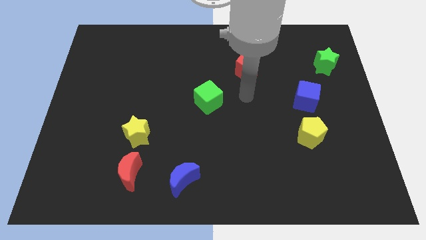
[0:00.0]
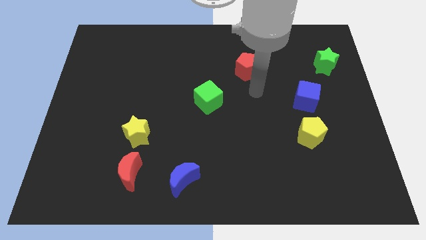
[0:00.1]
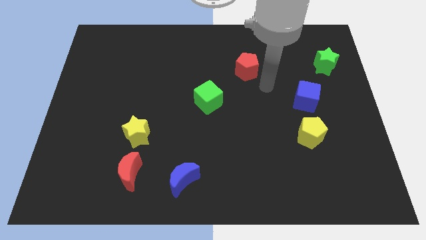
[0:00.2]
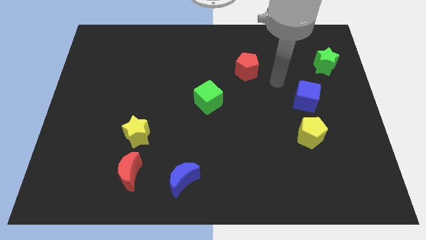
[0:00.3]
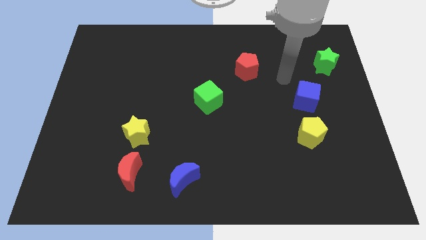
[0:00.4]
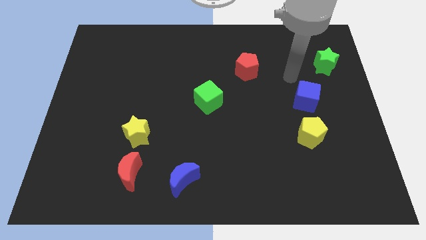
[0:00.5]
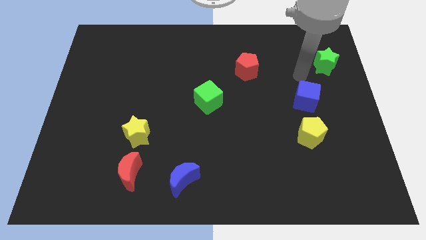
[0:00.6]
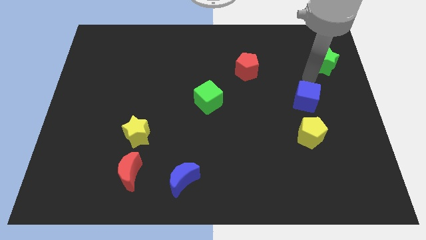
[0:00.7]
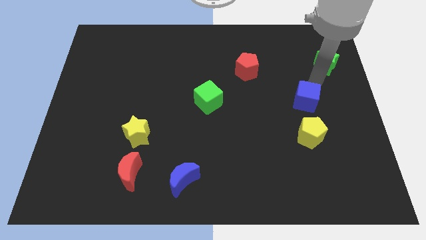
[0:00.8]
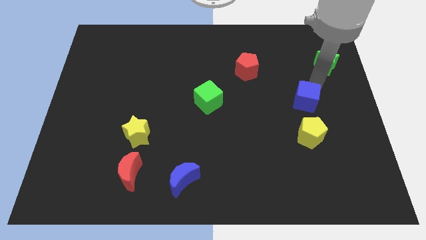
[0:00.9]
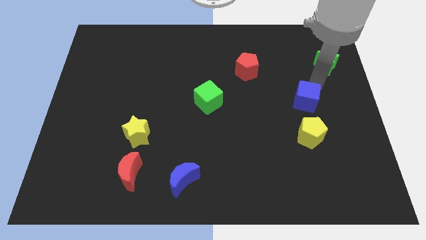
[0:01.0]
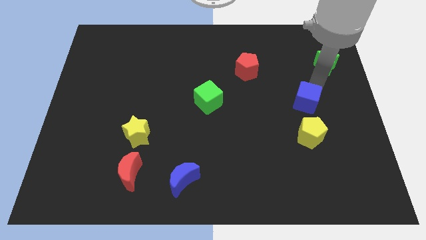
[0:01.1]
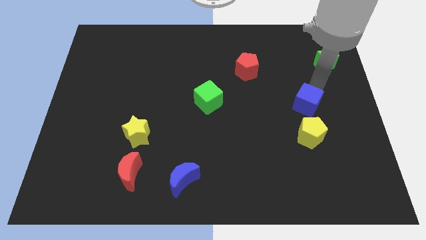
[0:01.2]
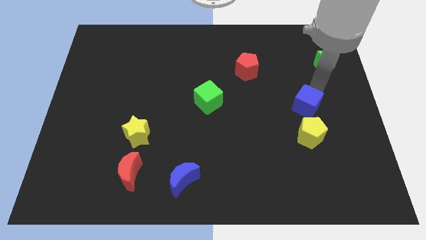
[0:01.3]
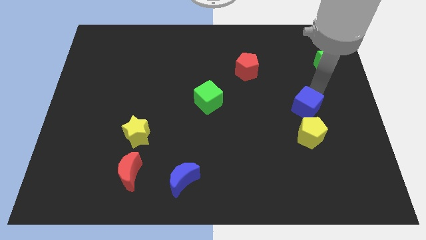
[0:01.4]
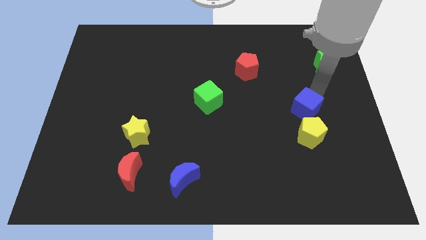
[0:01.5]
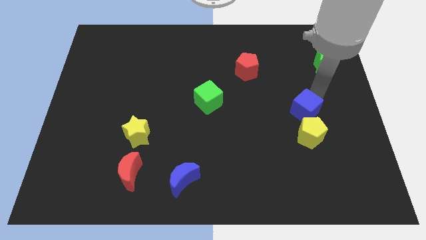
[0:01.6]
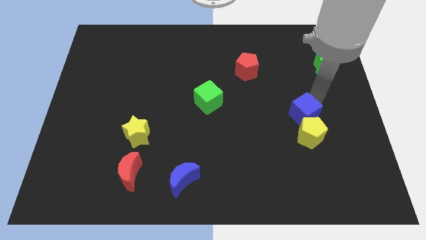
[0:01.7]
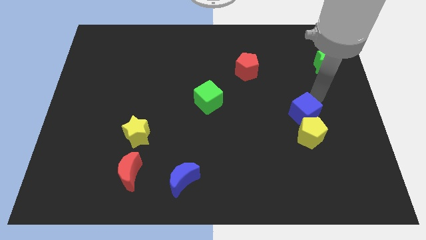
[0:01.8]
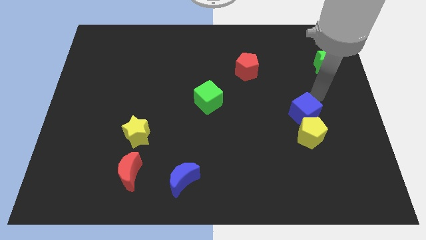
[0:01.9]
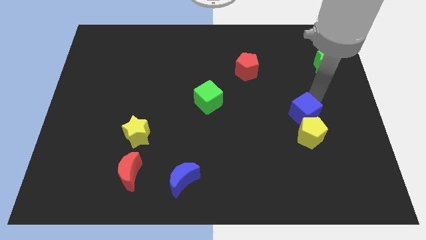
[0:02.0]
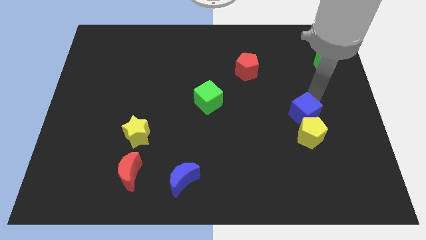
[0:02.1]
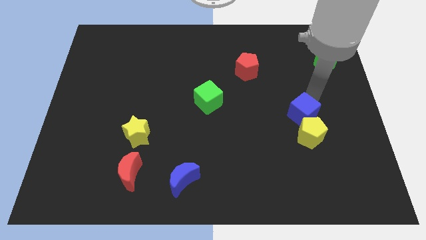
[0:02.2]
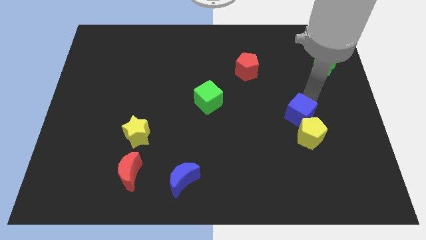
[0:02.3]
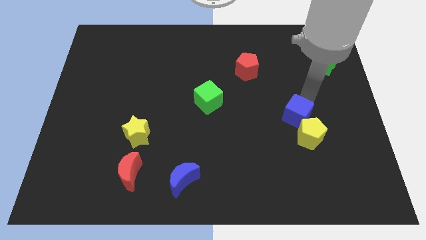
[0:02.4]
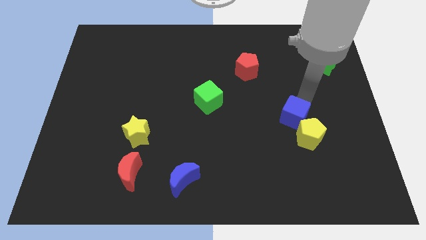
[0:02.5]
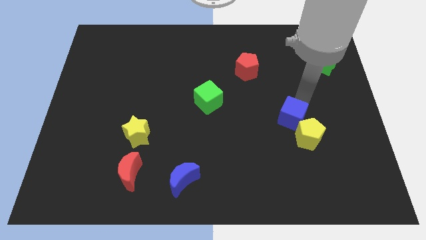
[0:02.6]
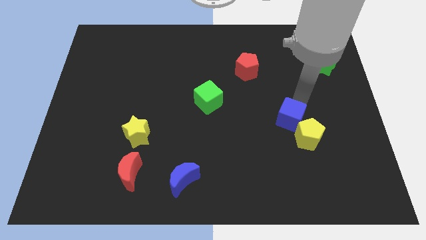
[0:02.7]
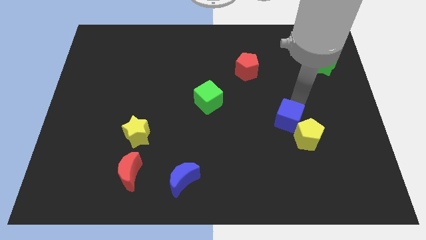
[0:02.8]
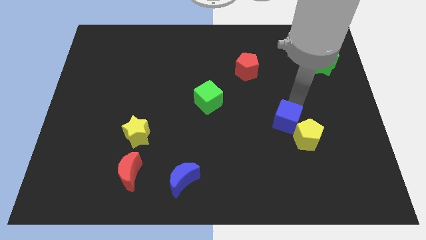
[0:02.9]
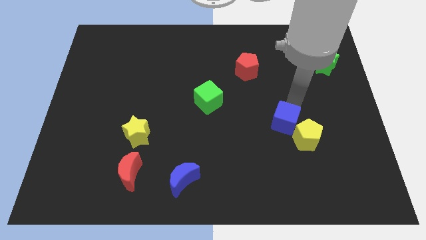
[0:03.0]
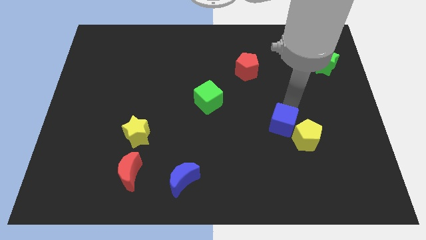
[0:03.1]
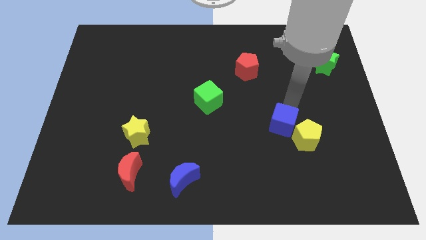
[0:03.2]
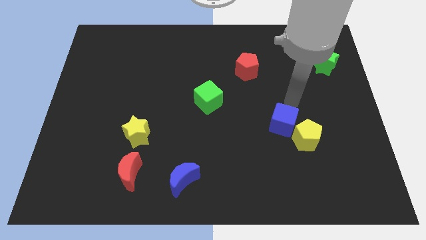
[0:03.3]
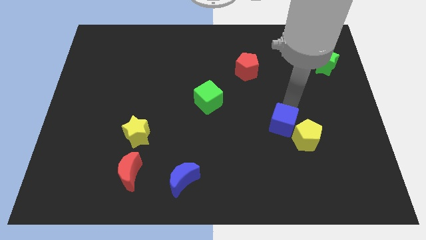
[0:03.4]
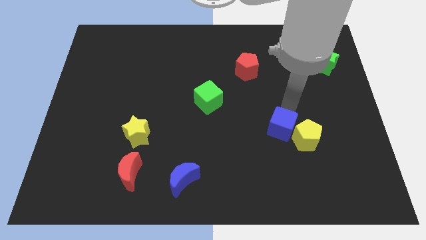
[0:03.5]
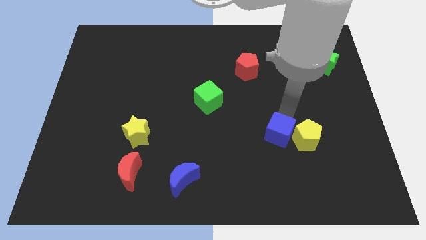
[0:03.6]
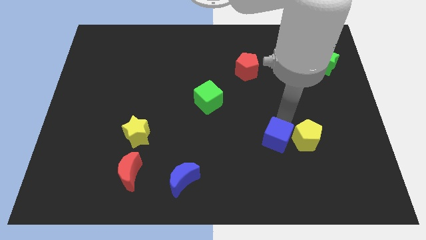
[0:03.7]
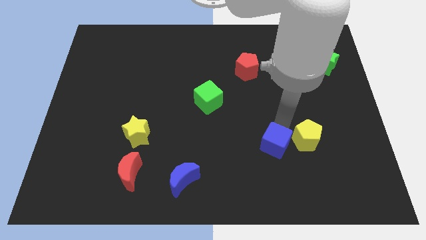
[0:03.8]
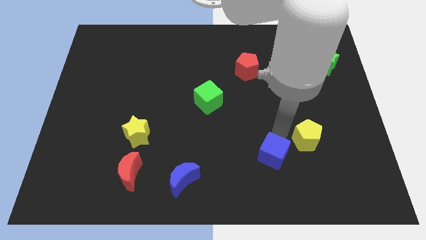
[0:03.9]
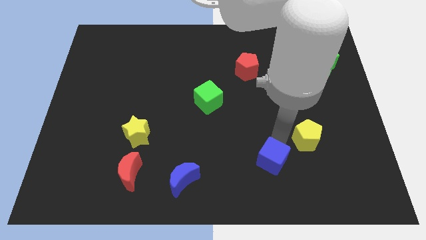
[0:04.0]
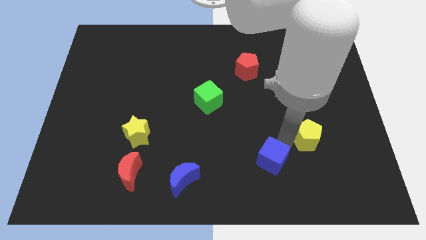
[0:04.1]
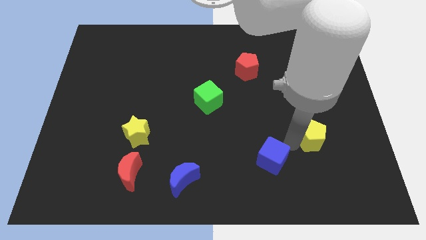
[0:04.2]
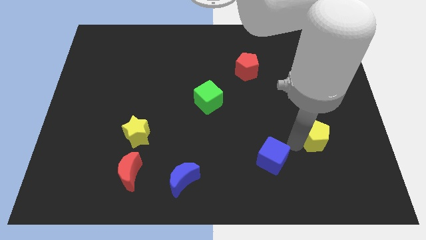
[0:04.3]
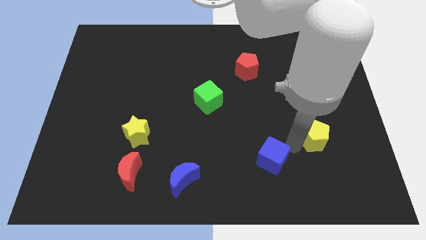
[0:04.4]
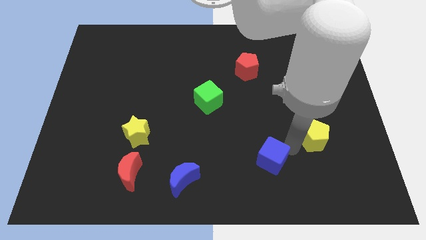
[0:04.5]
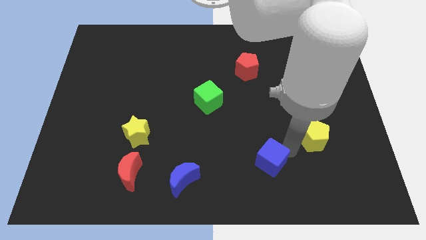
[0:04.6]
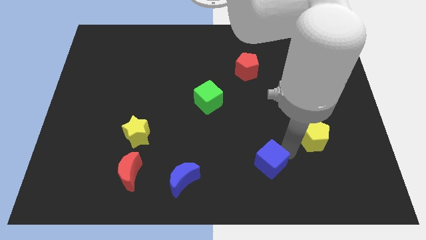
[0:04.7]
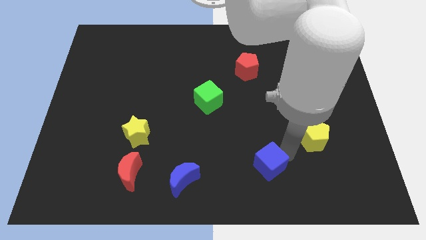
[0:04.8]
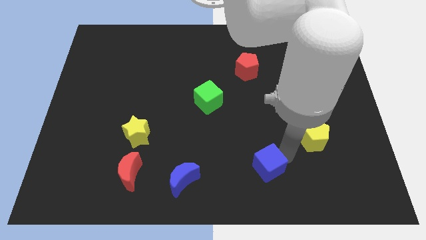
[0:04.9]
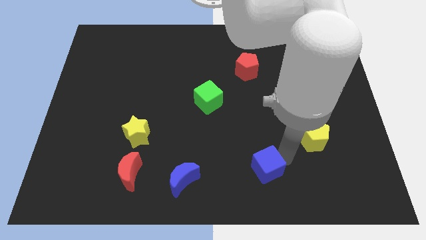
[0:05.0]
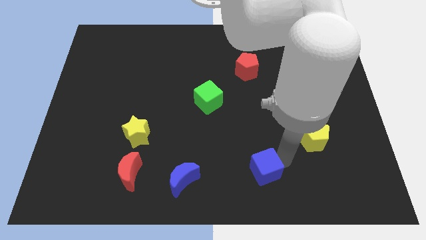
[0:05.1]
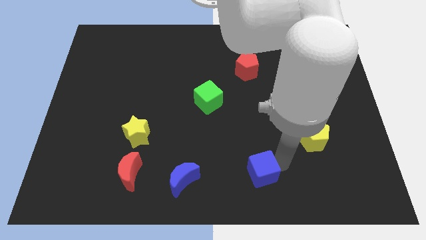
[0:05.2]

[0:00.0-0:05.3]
push the blue cube to the bottom side

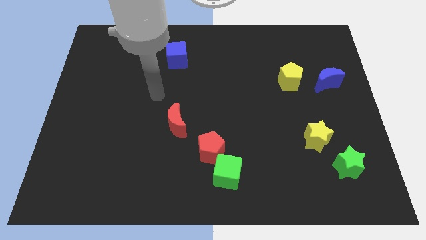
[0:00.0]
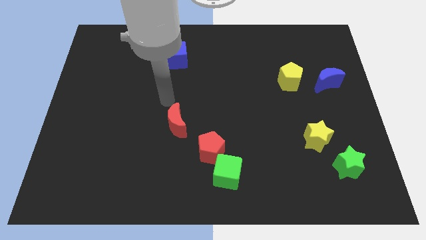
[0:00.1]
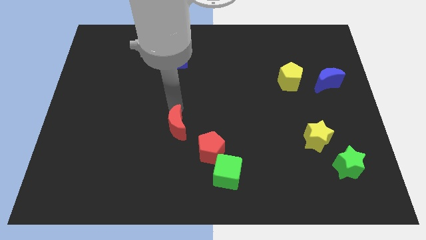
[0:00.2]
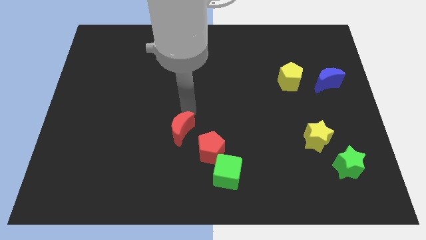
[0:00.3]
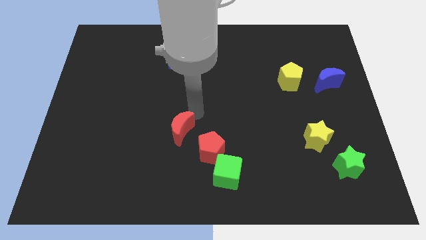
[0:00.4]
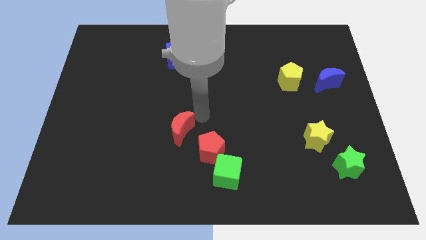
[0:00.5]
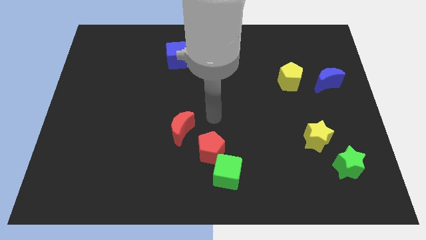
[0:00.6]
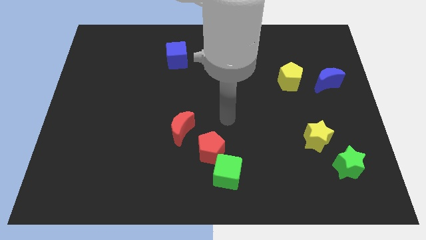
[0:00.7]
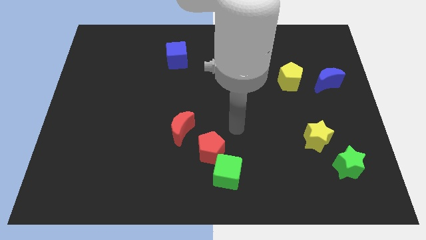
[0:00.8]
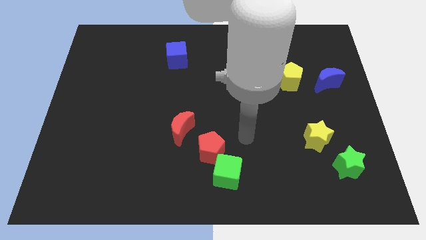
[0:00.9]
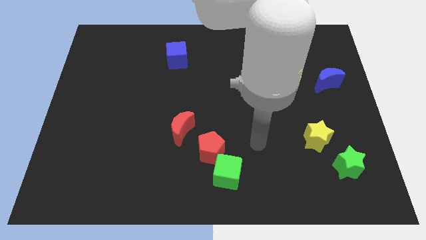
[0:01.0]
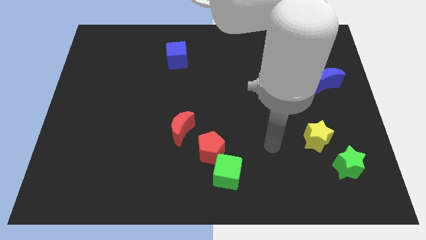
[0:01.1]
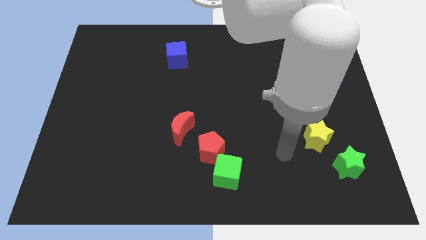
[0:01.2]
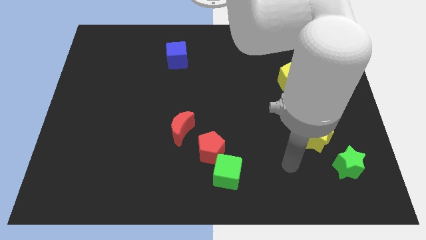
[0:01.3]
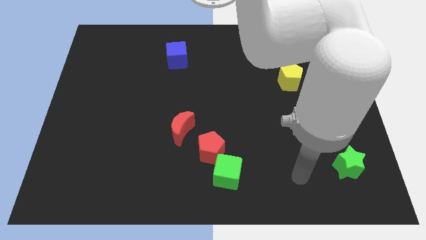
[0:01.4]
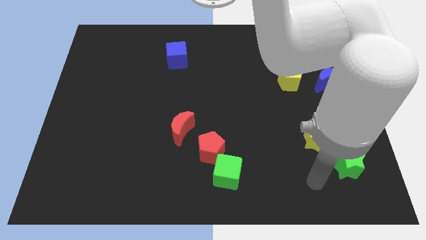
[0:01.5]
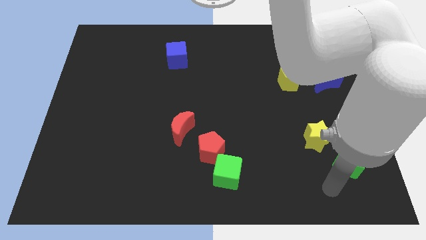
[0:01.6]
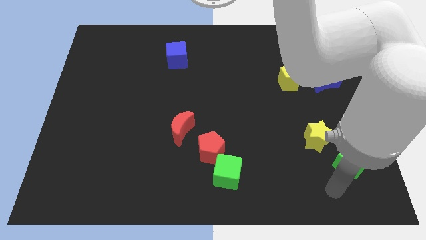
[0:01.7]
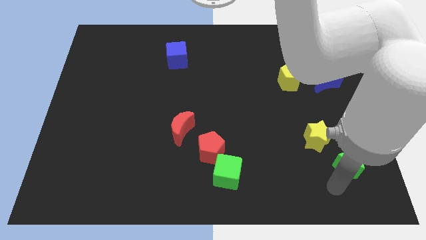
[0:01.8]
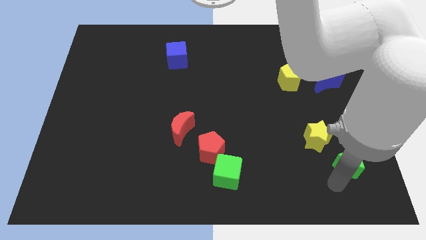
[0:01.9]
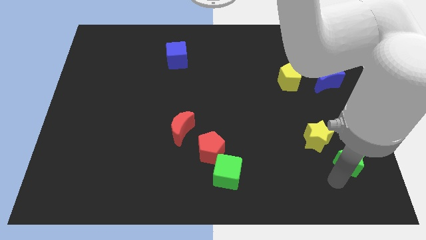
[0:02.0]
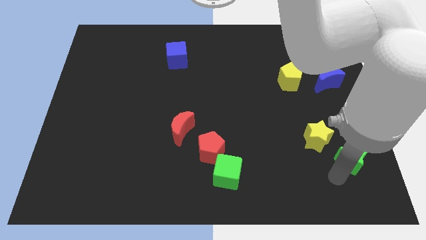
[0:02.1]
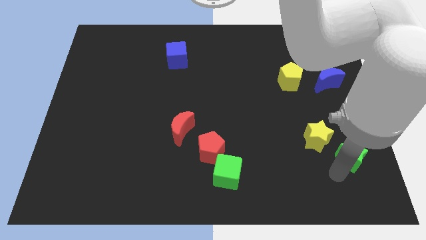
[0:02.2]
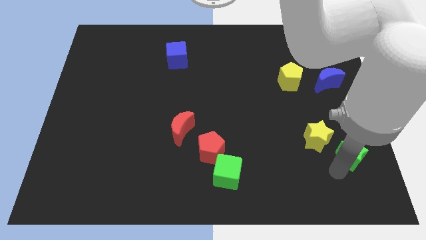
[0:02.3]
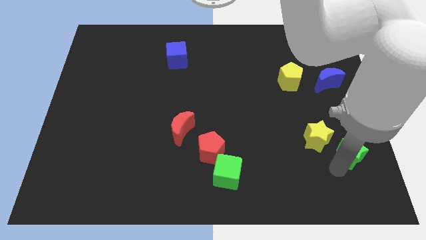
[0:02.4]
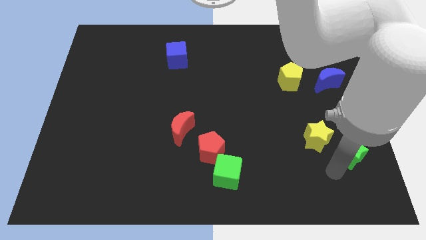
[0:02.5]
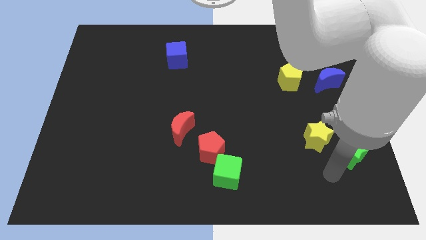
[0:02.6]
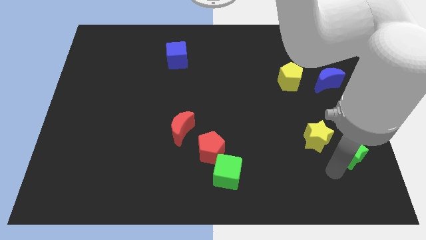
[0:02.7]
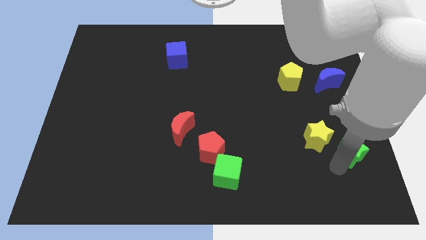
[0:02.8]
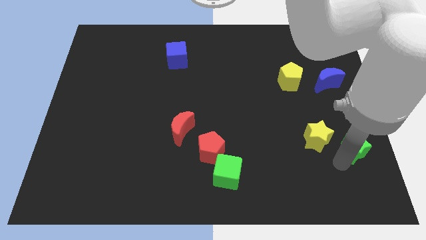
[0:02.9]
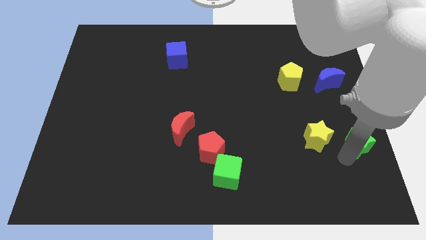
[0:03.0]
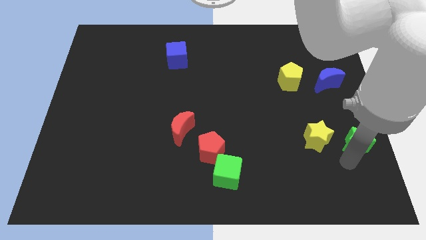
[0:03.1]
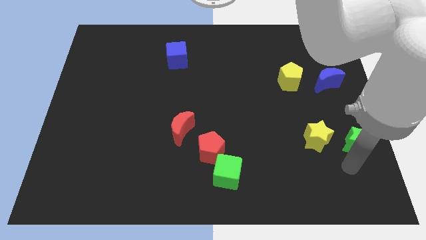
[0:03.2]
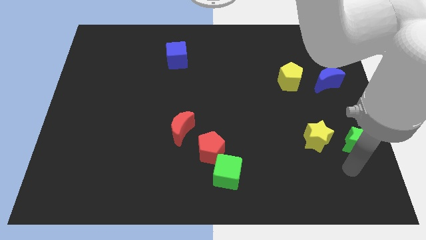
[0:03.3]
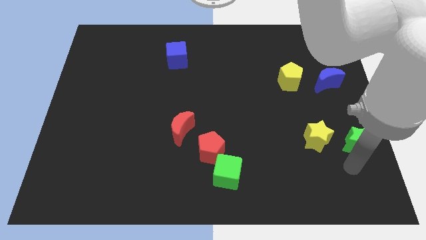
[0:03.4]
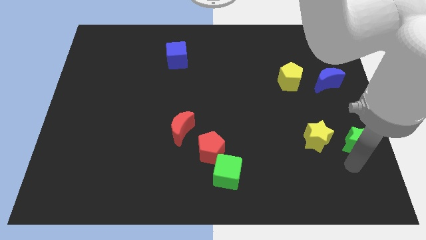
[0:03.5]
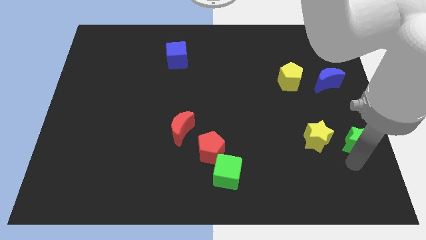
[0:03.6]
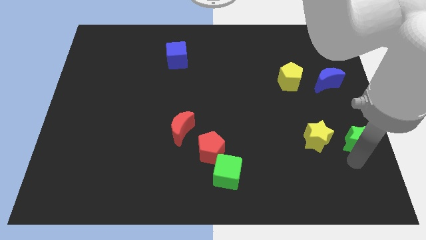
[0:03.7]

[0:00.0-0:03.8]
push the green star to the right side
